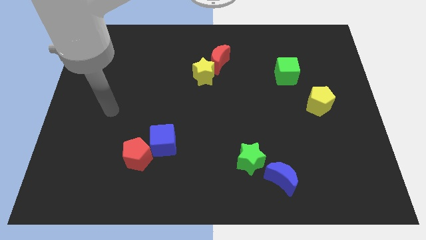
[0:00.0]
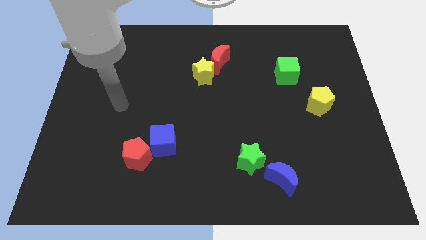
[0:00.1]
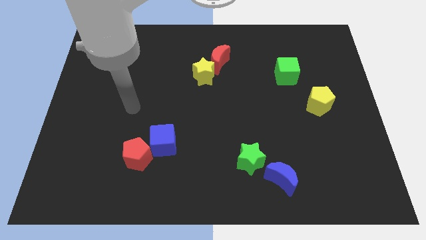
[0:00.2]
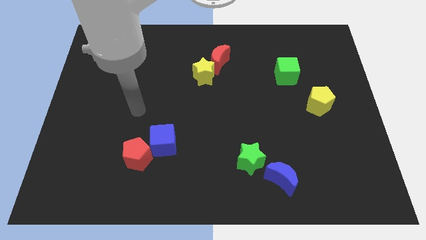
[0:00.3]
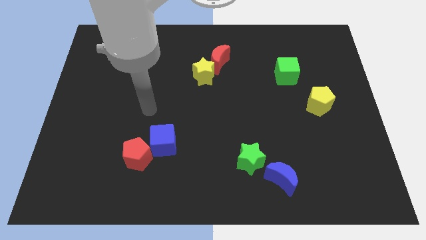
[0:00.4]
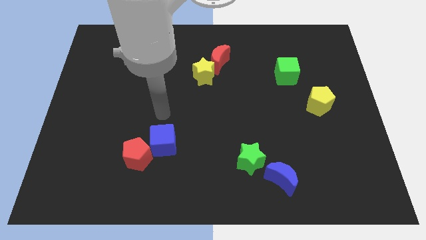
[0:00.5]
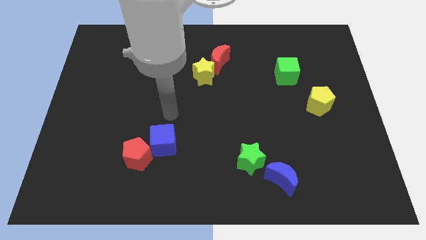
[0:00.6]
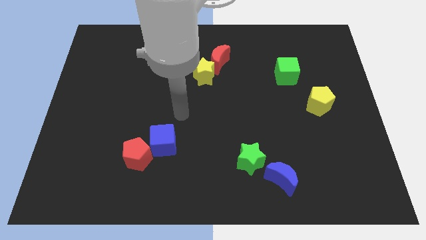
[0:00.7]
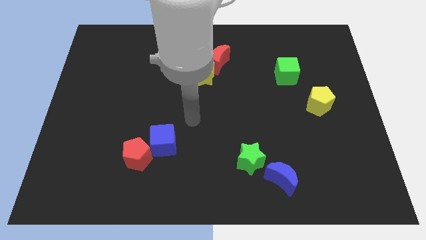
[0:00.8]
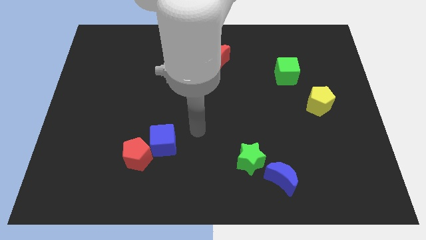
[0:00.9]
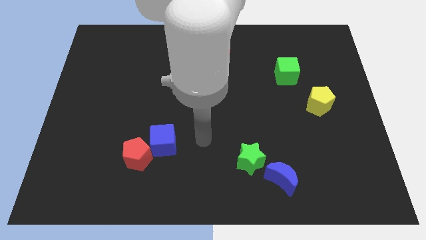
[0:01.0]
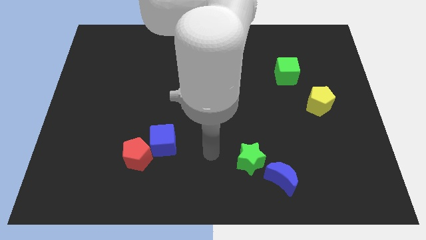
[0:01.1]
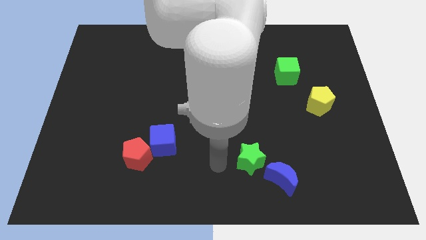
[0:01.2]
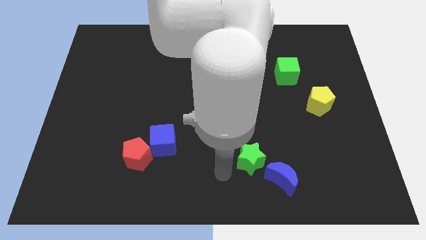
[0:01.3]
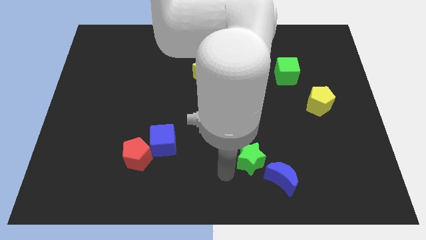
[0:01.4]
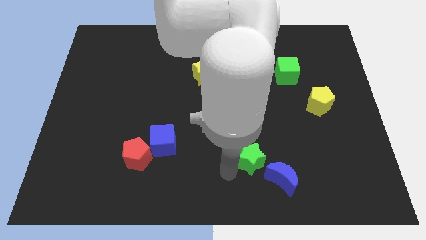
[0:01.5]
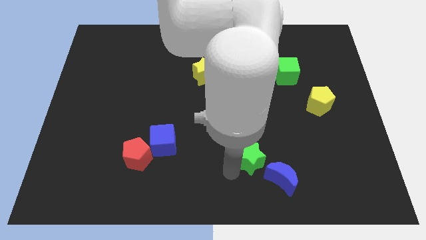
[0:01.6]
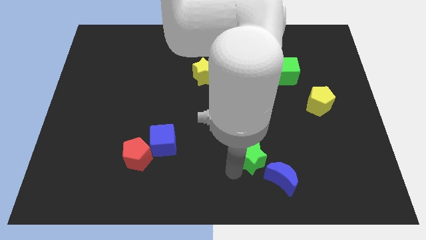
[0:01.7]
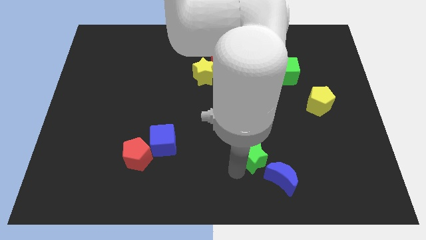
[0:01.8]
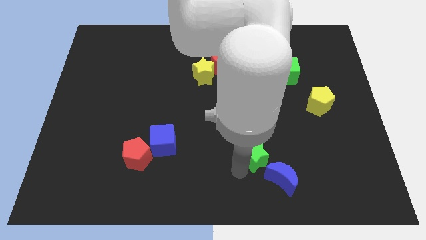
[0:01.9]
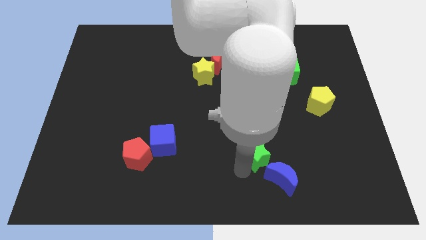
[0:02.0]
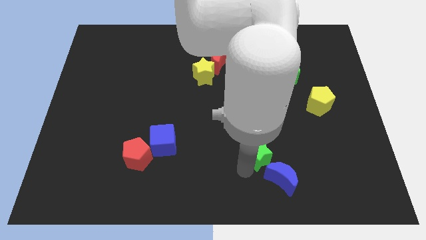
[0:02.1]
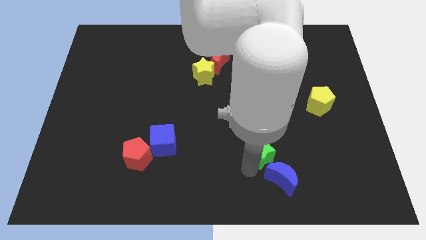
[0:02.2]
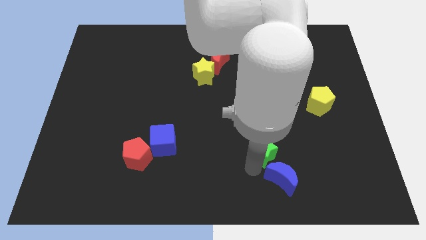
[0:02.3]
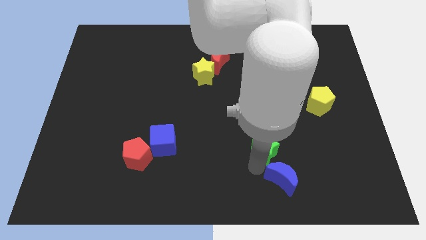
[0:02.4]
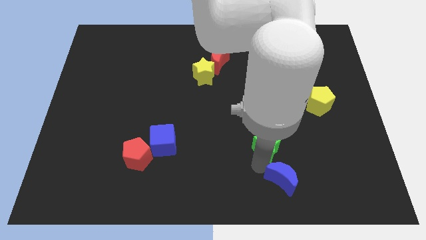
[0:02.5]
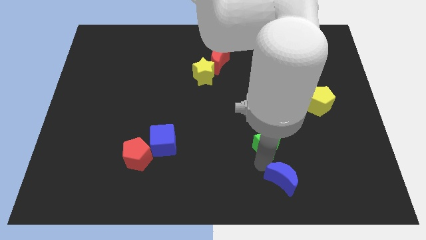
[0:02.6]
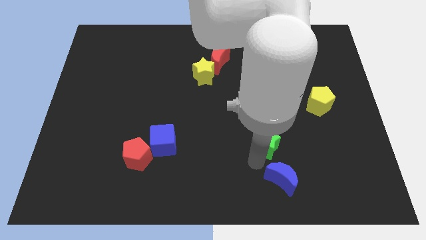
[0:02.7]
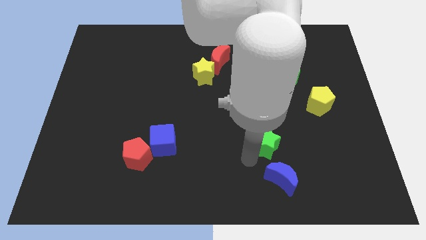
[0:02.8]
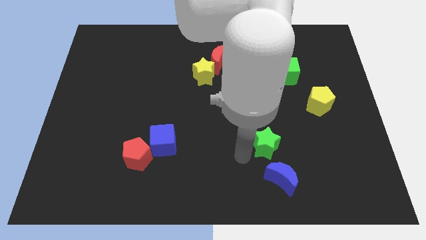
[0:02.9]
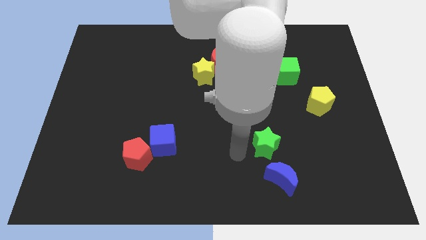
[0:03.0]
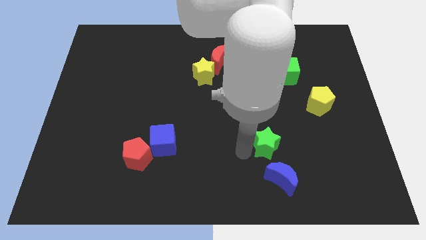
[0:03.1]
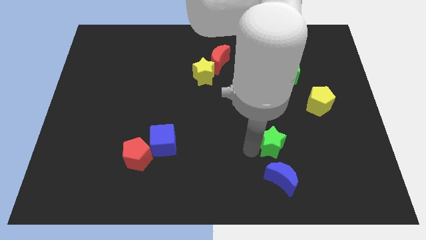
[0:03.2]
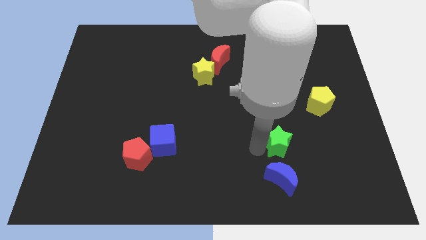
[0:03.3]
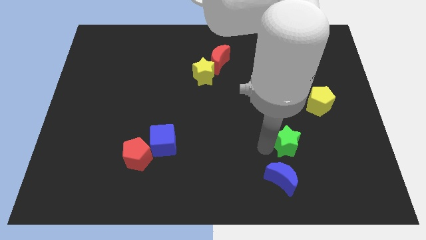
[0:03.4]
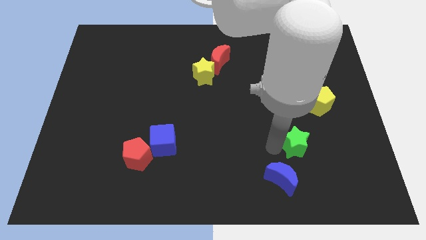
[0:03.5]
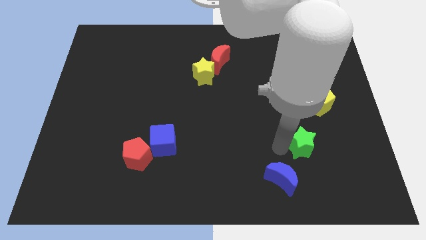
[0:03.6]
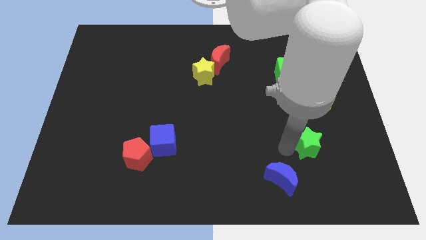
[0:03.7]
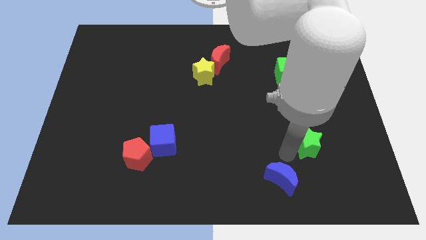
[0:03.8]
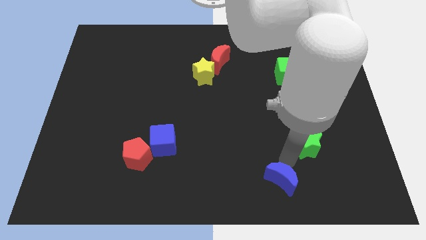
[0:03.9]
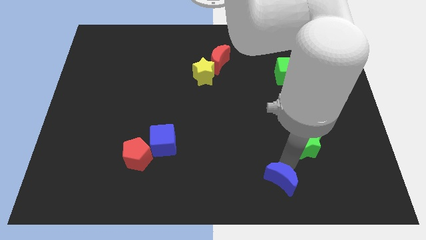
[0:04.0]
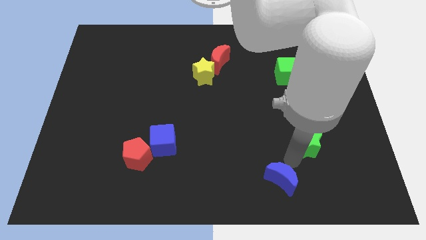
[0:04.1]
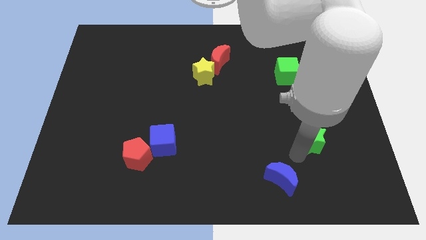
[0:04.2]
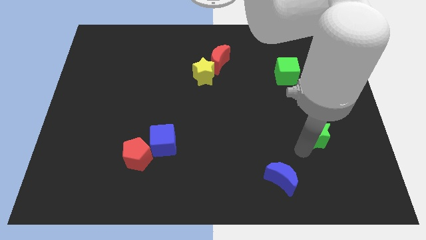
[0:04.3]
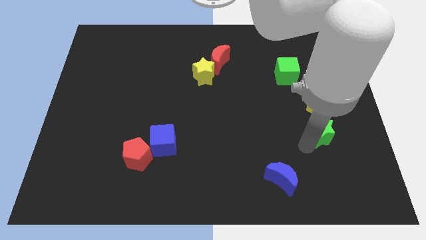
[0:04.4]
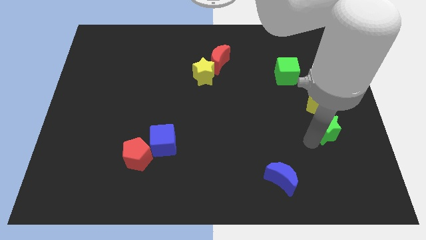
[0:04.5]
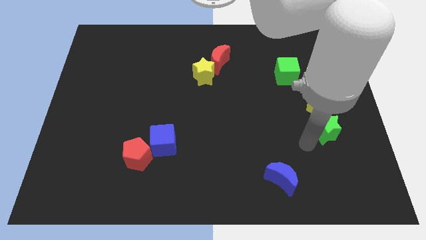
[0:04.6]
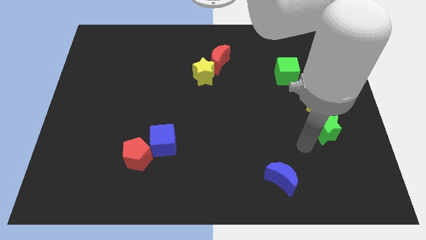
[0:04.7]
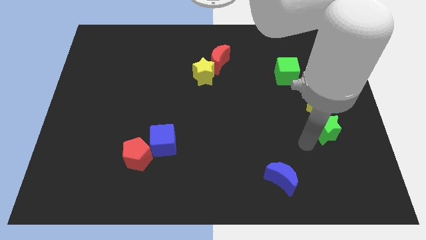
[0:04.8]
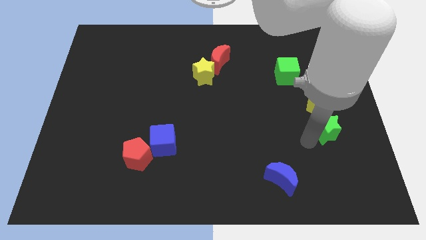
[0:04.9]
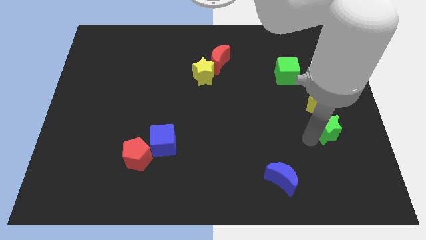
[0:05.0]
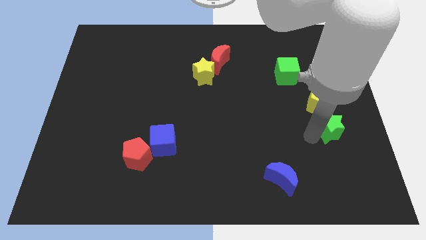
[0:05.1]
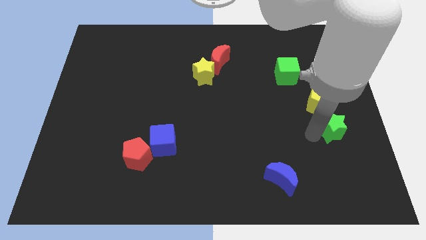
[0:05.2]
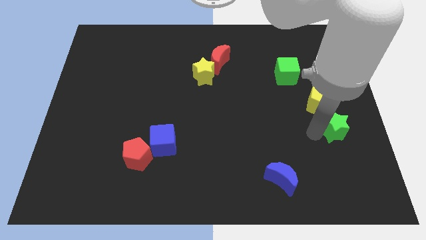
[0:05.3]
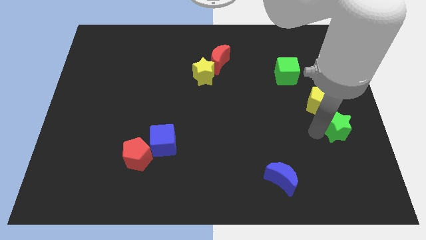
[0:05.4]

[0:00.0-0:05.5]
push the green star to the right side of the board

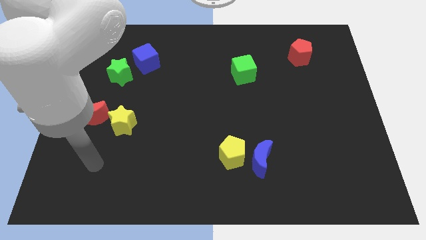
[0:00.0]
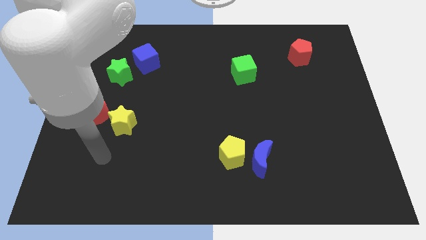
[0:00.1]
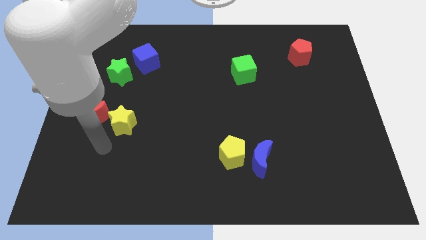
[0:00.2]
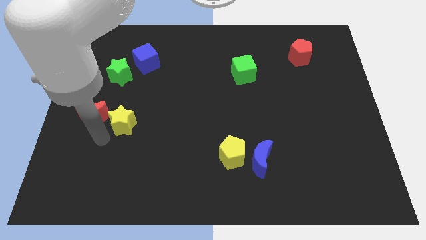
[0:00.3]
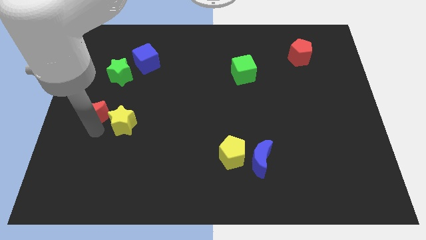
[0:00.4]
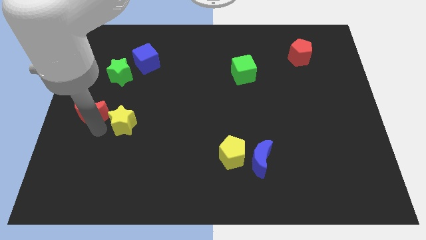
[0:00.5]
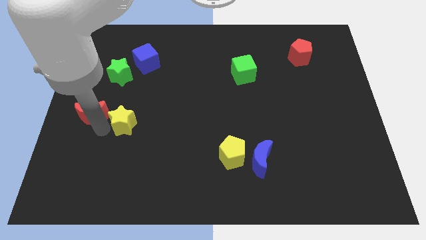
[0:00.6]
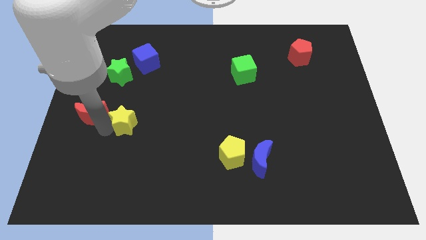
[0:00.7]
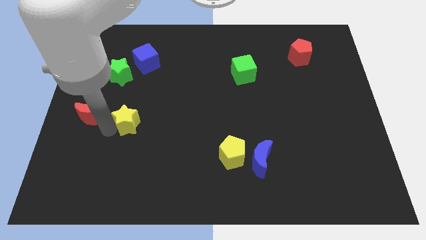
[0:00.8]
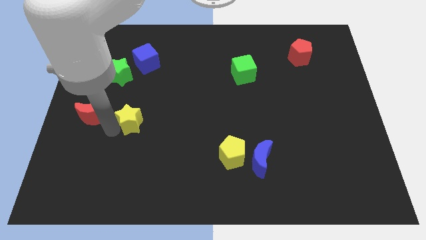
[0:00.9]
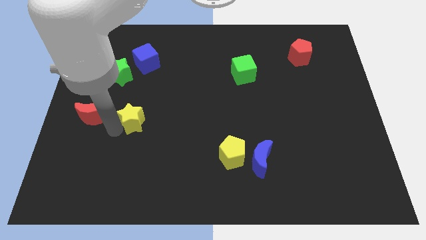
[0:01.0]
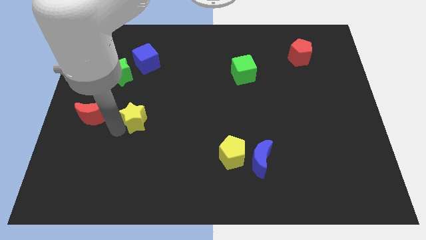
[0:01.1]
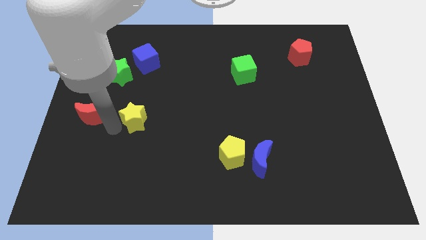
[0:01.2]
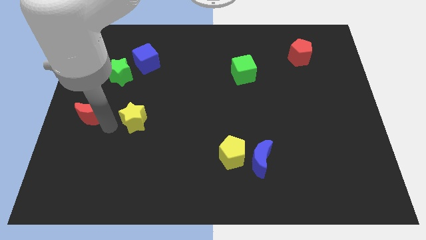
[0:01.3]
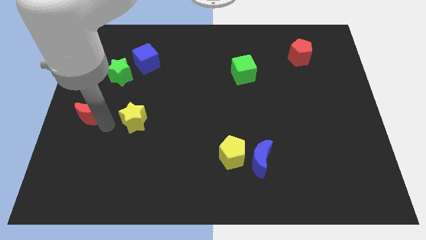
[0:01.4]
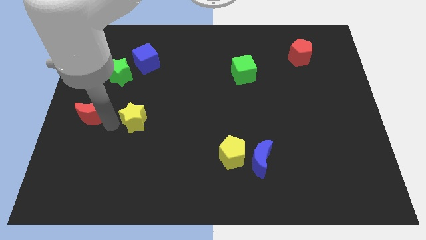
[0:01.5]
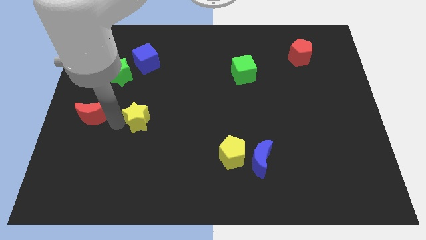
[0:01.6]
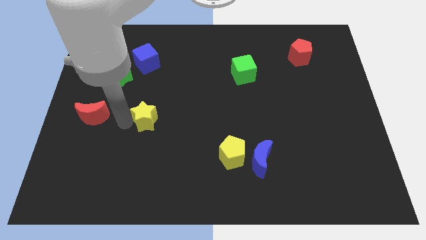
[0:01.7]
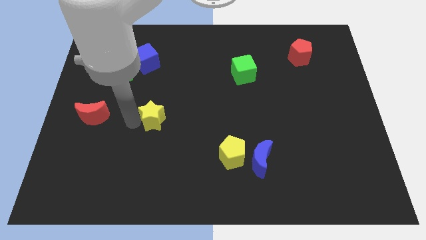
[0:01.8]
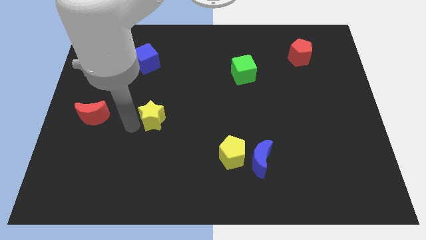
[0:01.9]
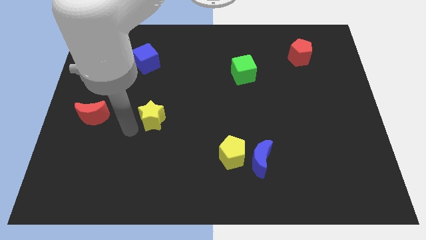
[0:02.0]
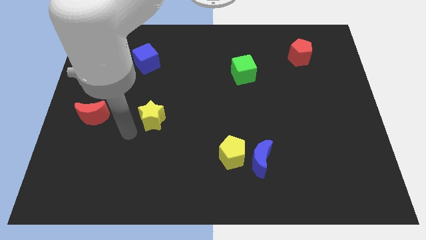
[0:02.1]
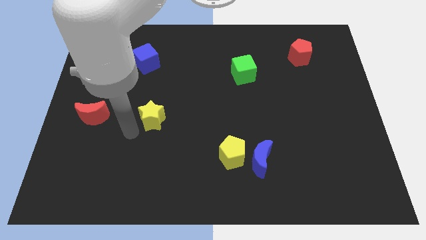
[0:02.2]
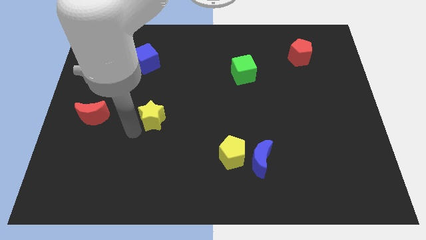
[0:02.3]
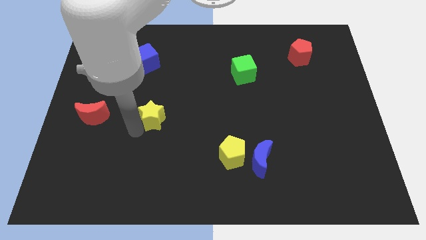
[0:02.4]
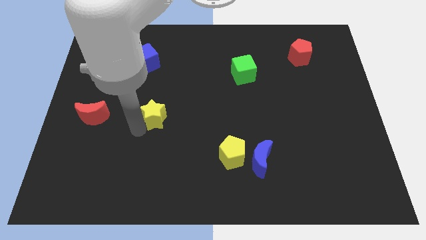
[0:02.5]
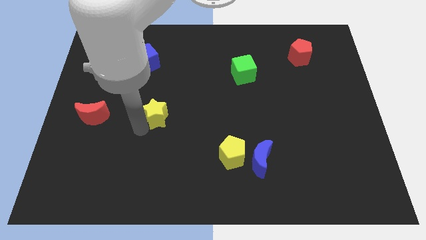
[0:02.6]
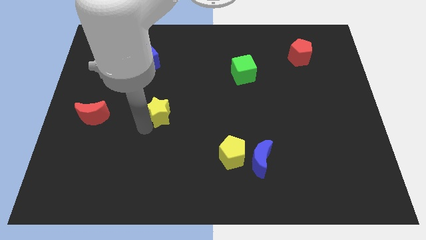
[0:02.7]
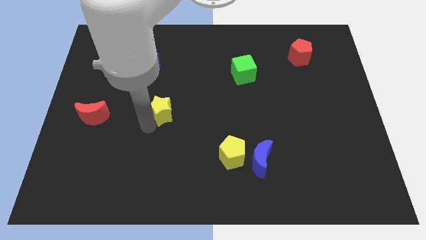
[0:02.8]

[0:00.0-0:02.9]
move the yellow star to the center
